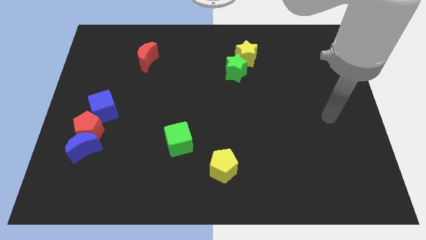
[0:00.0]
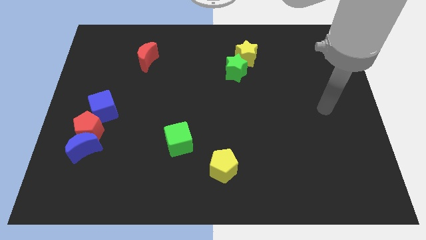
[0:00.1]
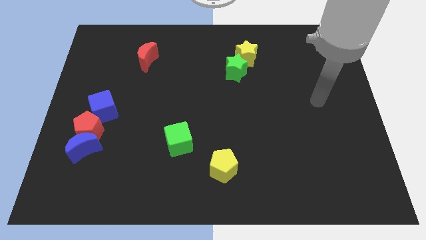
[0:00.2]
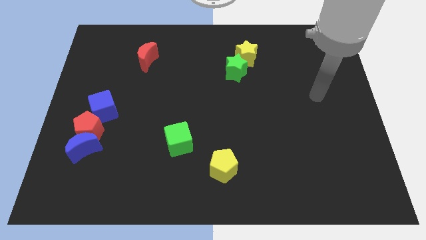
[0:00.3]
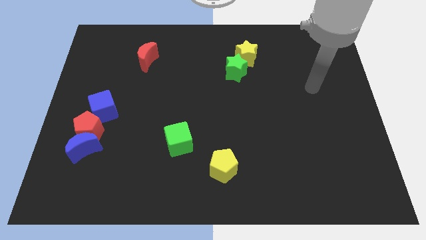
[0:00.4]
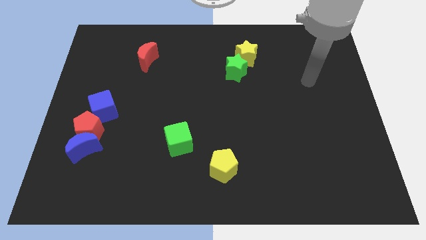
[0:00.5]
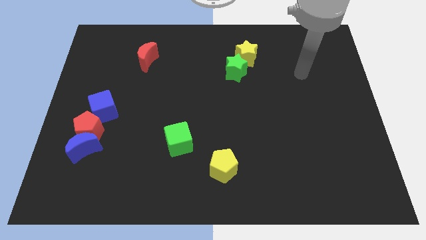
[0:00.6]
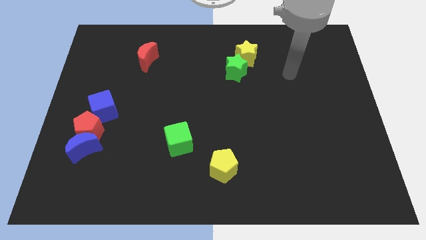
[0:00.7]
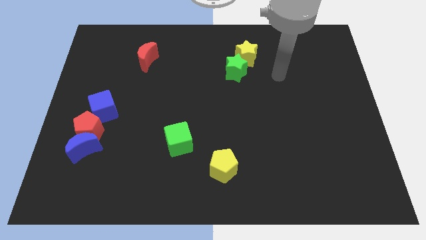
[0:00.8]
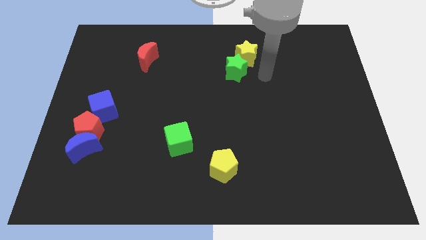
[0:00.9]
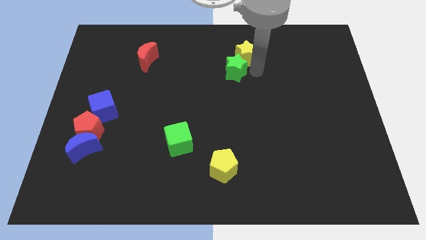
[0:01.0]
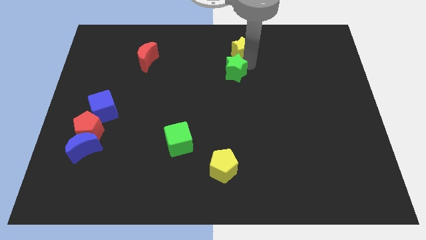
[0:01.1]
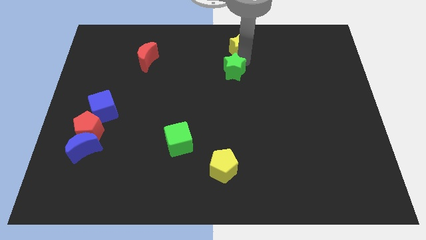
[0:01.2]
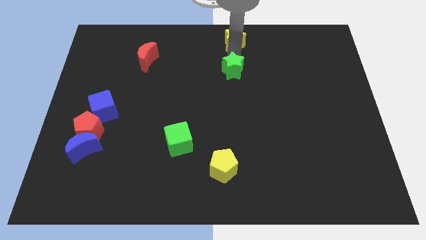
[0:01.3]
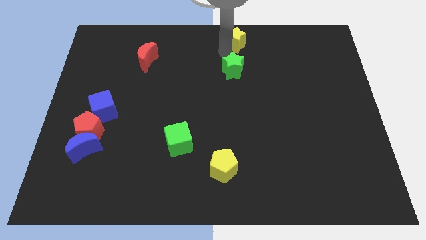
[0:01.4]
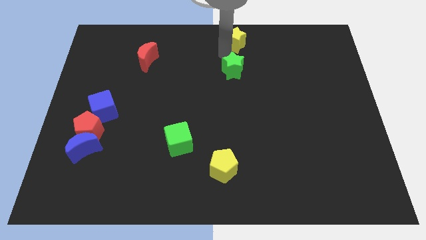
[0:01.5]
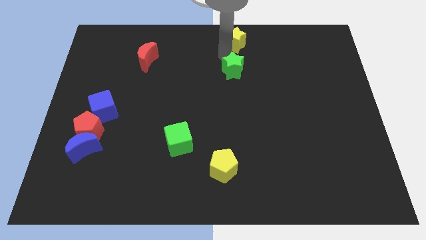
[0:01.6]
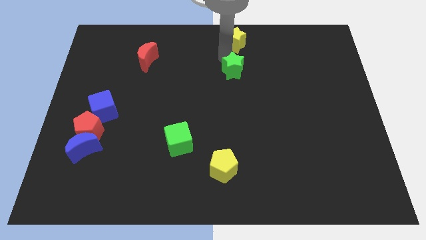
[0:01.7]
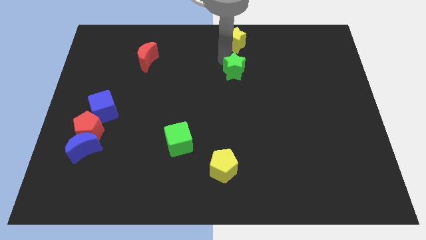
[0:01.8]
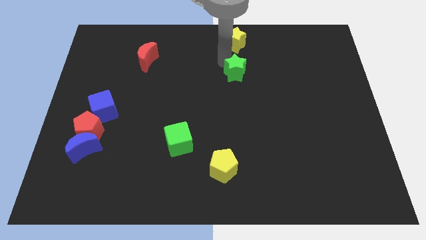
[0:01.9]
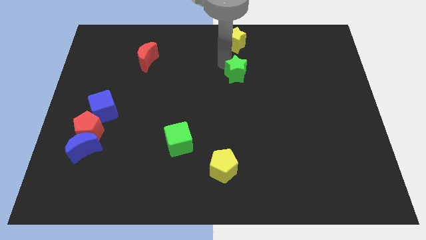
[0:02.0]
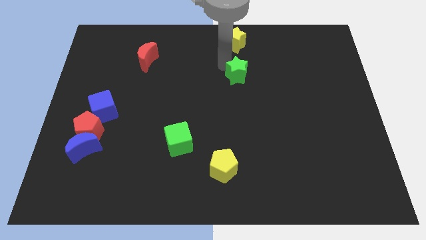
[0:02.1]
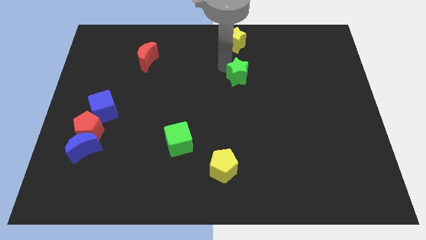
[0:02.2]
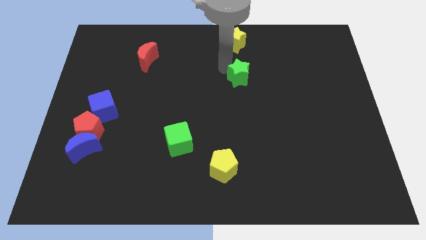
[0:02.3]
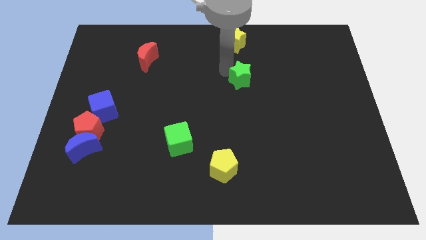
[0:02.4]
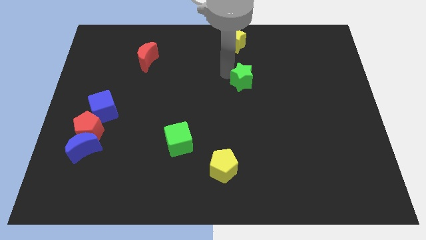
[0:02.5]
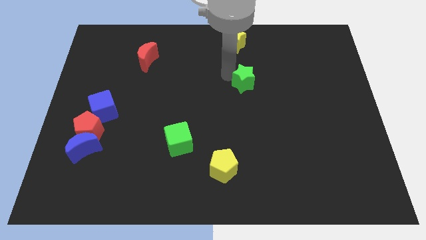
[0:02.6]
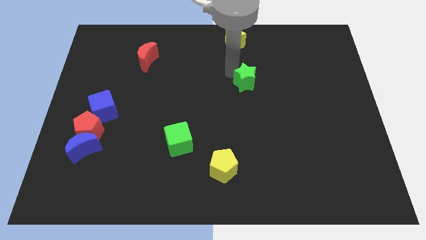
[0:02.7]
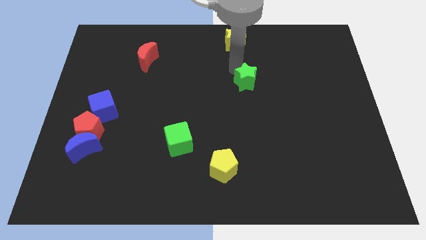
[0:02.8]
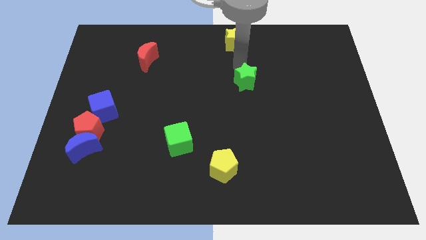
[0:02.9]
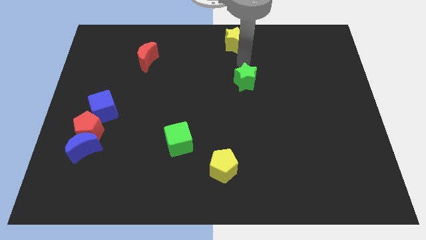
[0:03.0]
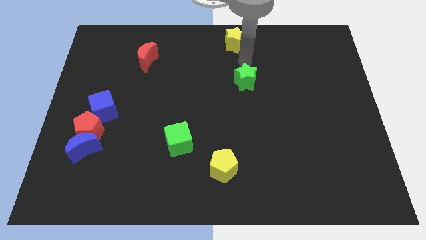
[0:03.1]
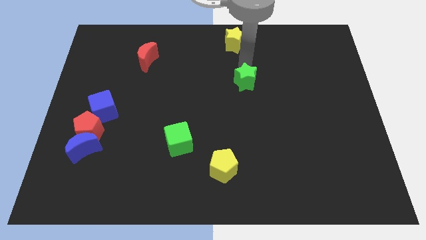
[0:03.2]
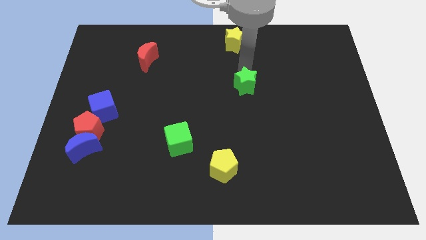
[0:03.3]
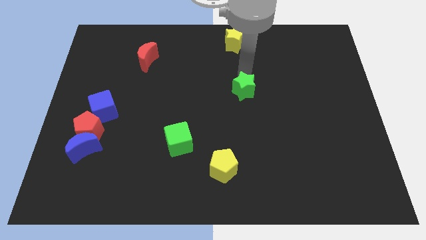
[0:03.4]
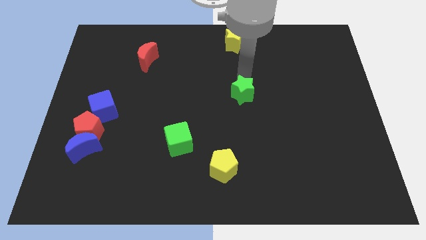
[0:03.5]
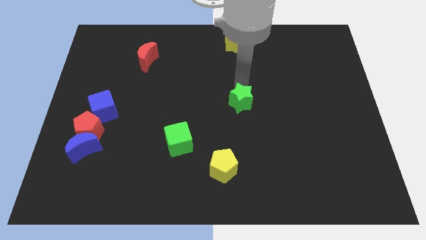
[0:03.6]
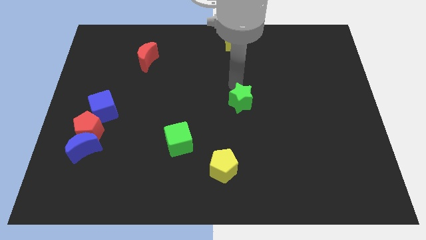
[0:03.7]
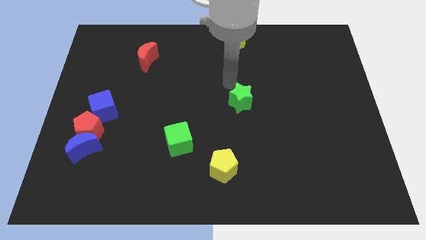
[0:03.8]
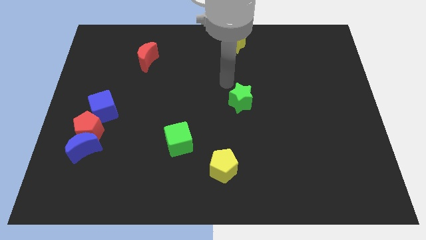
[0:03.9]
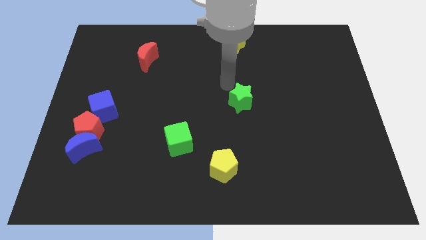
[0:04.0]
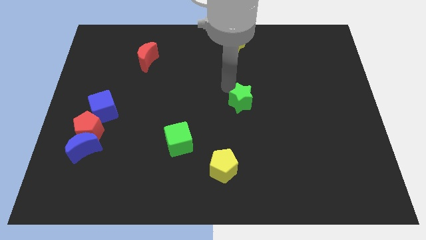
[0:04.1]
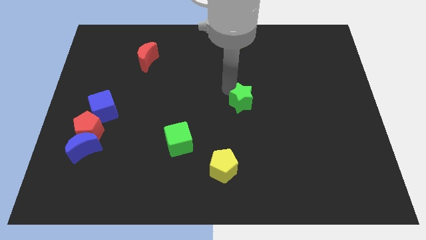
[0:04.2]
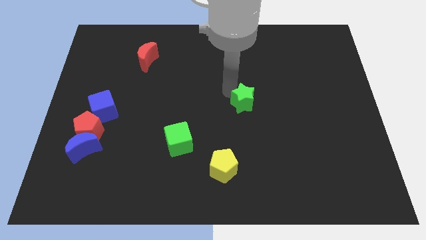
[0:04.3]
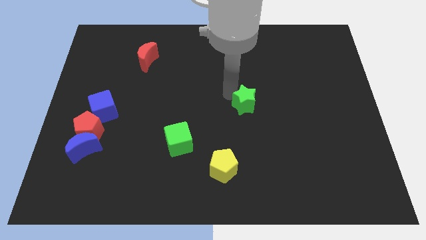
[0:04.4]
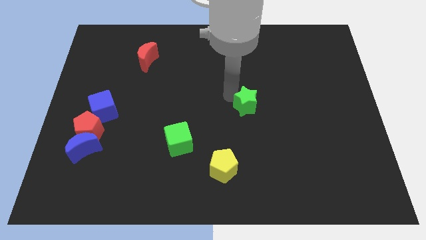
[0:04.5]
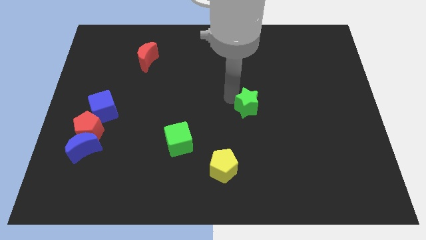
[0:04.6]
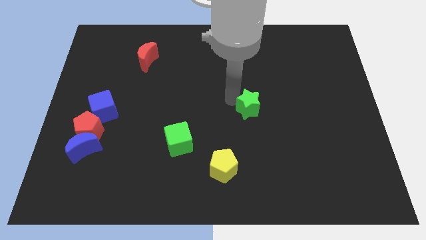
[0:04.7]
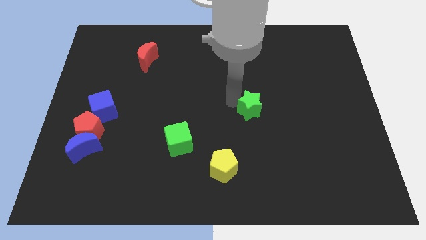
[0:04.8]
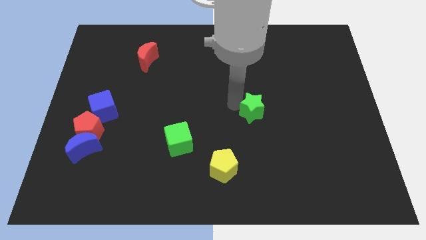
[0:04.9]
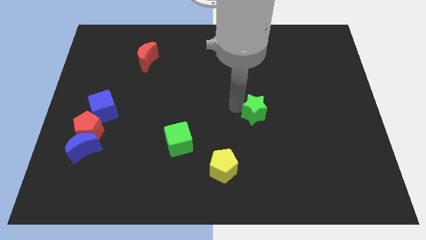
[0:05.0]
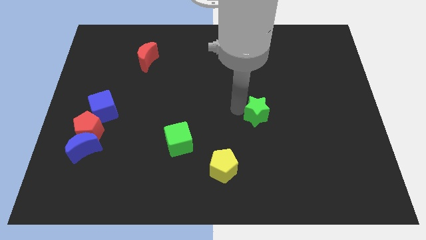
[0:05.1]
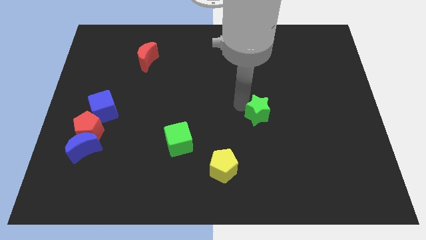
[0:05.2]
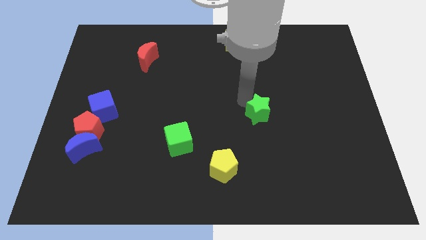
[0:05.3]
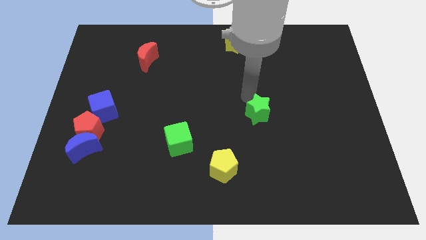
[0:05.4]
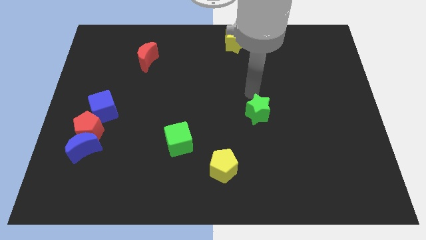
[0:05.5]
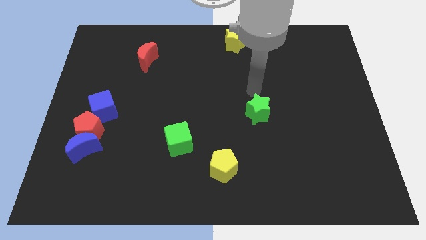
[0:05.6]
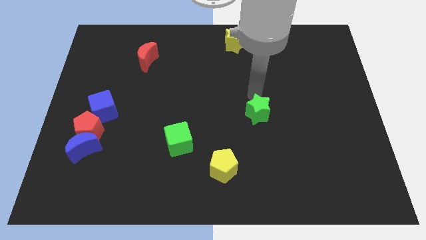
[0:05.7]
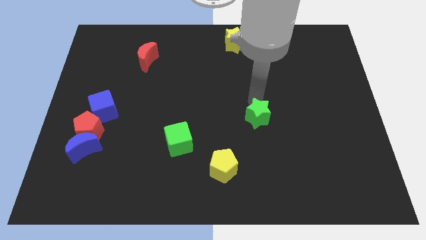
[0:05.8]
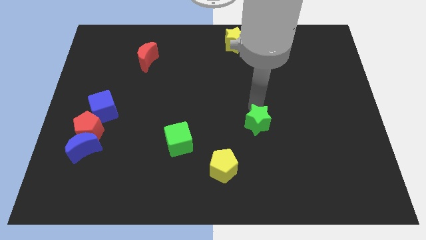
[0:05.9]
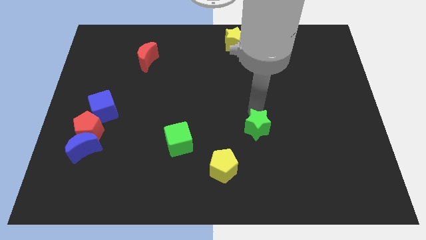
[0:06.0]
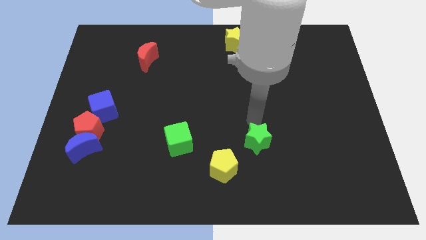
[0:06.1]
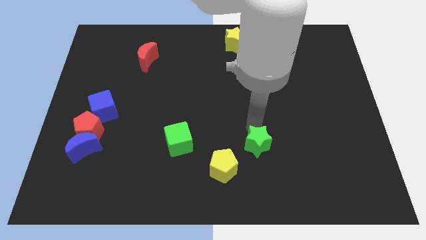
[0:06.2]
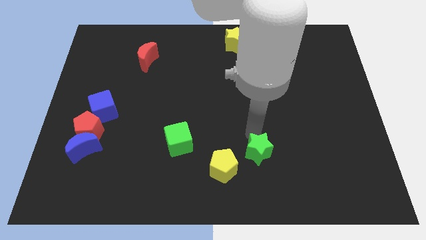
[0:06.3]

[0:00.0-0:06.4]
move the green star to the right of the yellow pentagon

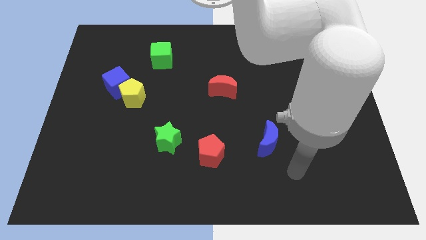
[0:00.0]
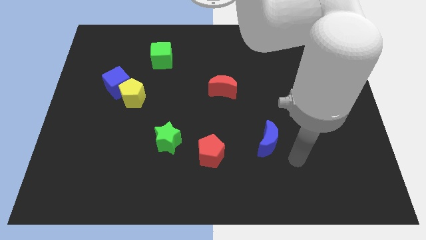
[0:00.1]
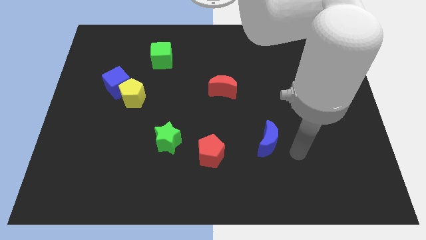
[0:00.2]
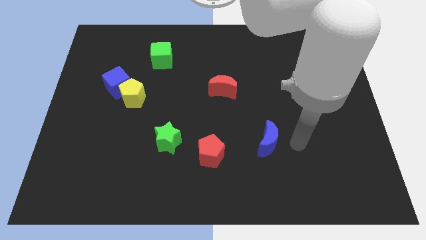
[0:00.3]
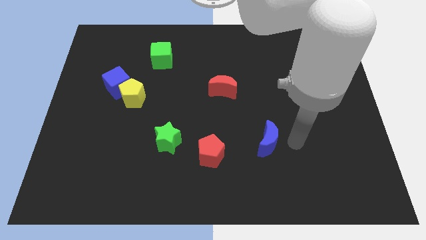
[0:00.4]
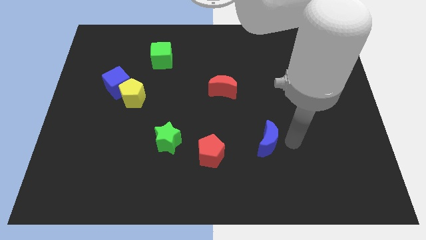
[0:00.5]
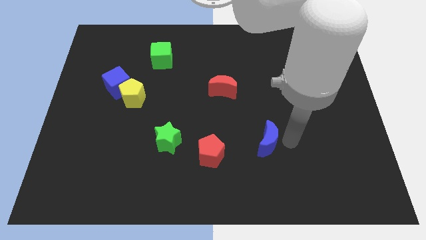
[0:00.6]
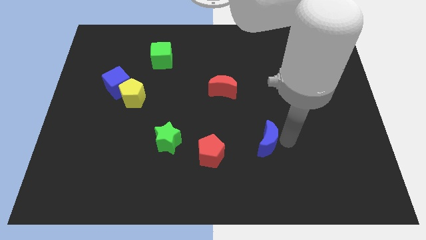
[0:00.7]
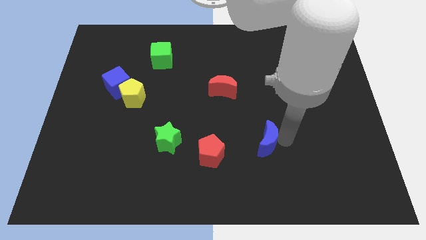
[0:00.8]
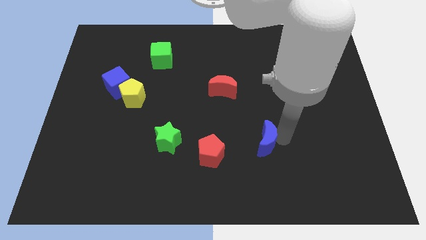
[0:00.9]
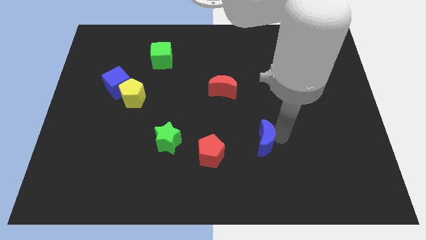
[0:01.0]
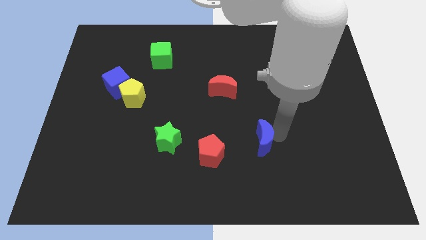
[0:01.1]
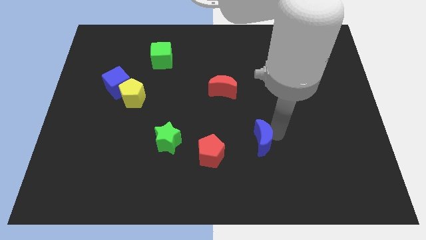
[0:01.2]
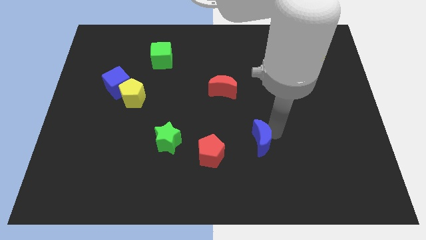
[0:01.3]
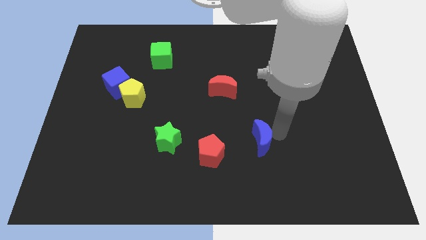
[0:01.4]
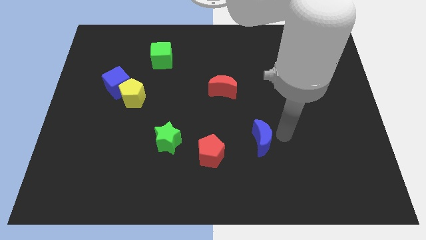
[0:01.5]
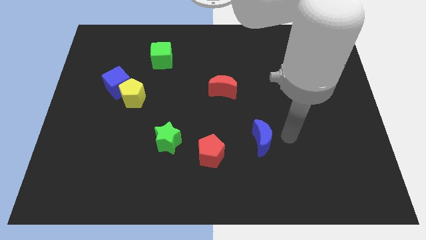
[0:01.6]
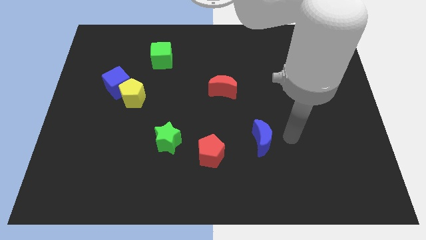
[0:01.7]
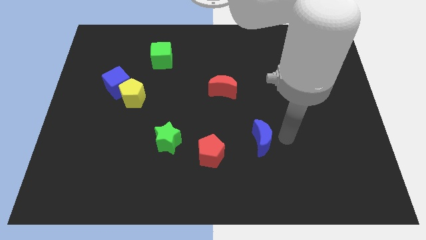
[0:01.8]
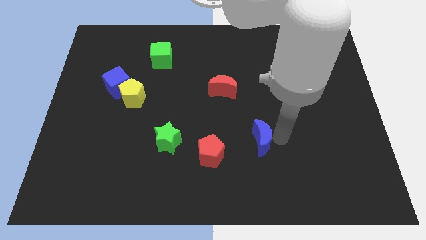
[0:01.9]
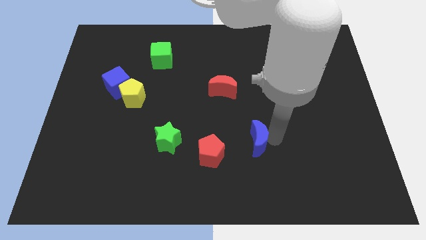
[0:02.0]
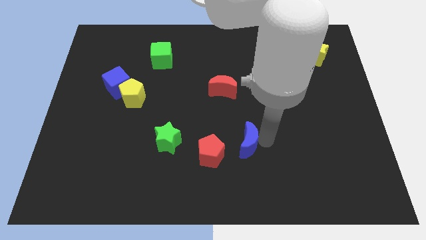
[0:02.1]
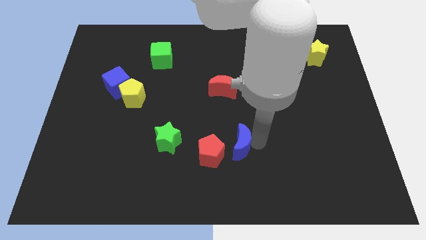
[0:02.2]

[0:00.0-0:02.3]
push the blue moon to the right of the green star
